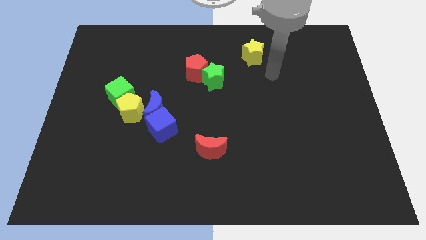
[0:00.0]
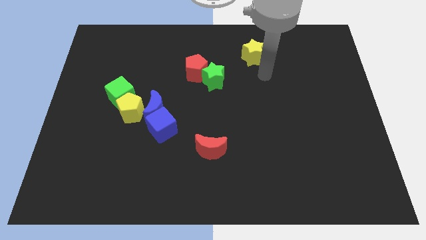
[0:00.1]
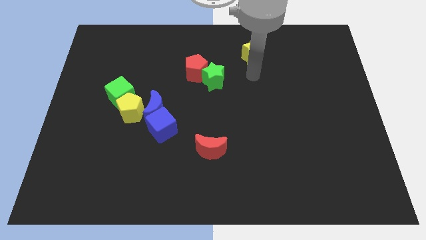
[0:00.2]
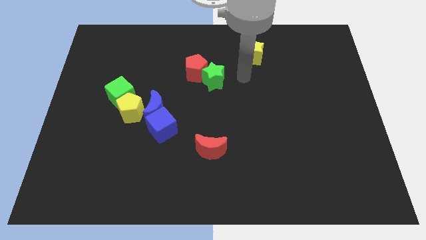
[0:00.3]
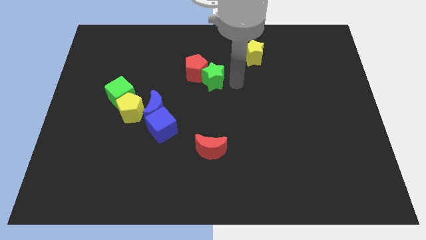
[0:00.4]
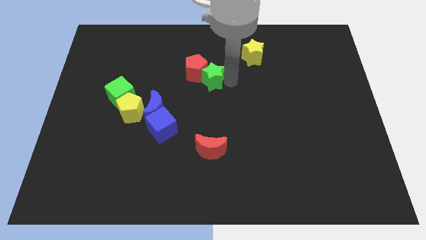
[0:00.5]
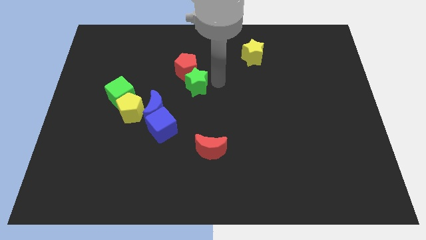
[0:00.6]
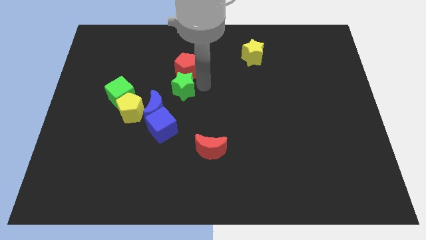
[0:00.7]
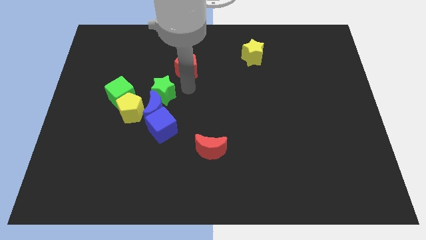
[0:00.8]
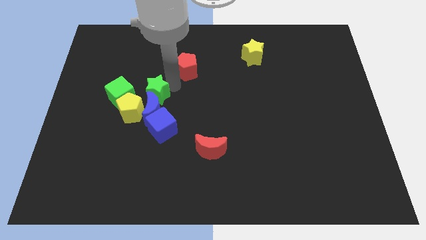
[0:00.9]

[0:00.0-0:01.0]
pull the red pentagon apart from the green star

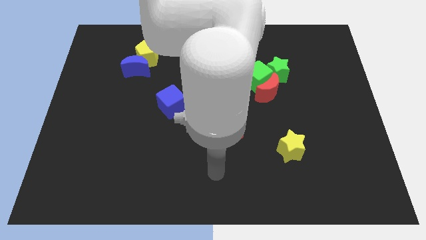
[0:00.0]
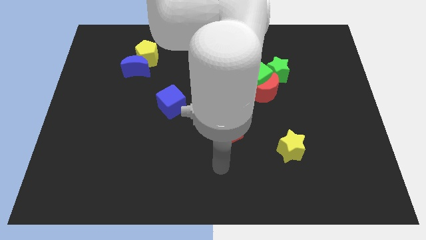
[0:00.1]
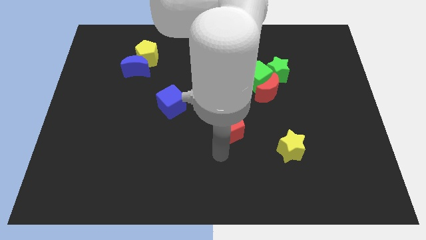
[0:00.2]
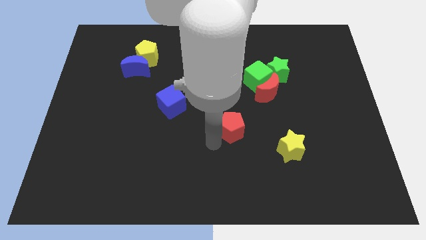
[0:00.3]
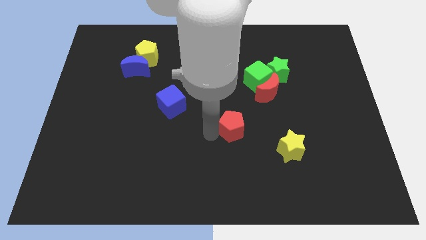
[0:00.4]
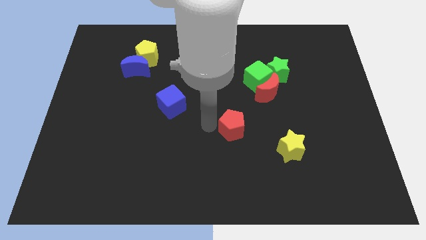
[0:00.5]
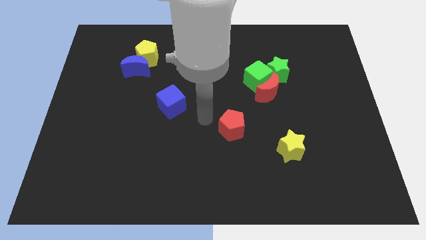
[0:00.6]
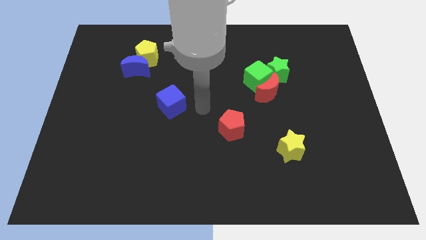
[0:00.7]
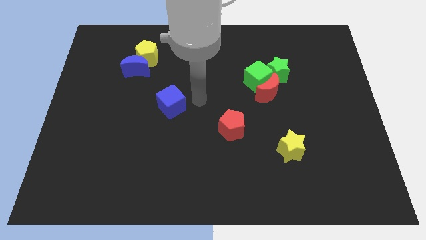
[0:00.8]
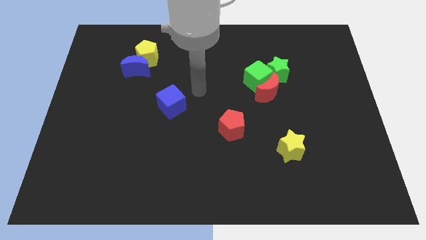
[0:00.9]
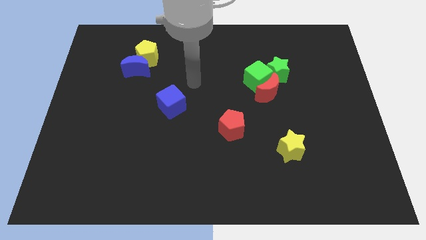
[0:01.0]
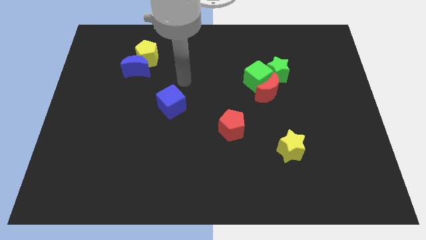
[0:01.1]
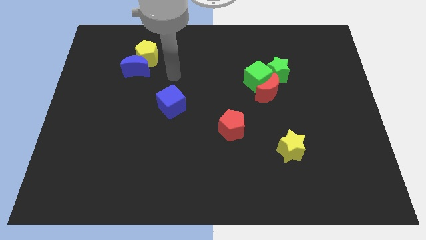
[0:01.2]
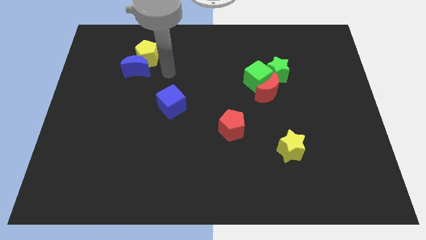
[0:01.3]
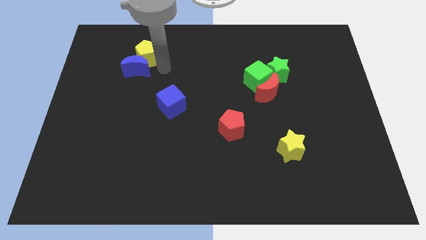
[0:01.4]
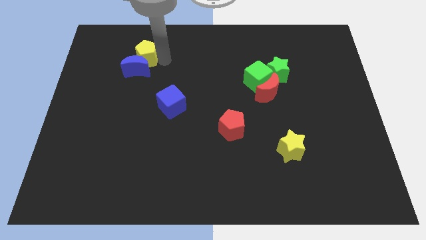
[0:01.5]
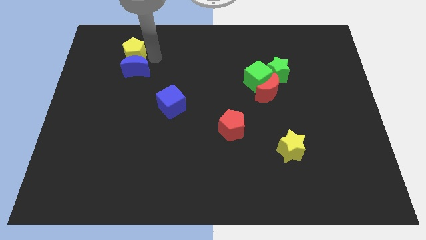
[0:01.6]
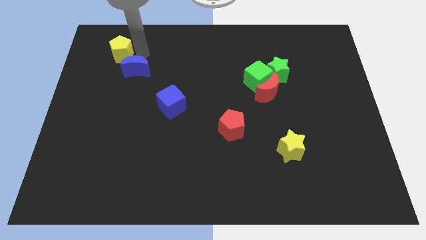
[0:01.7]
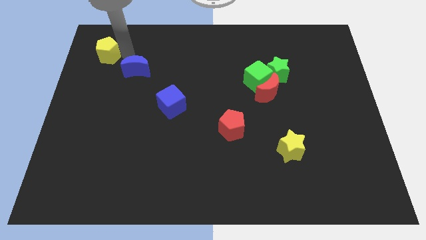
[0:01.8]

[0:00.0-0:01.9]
separate the blue moon from the yellow pentagon

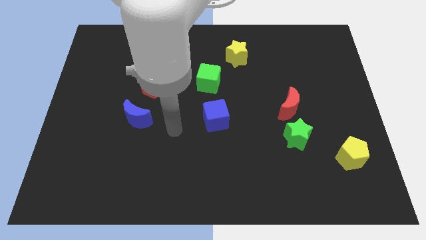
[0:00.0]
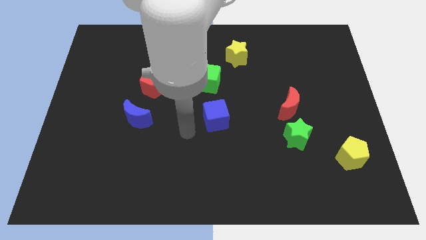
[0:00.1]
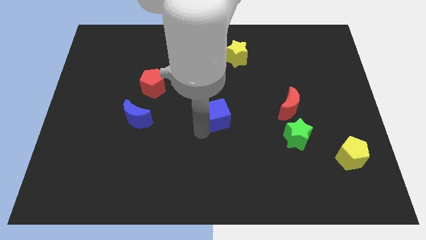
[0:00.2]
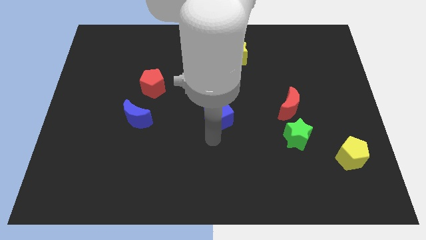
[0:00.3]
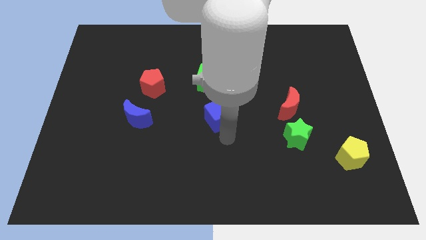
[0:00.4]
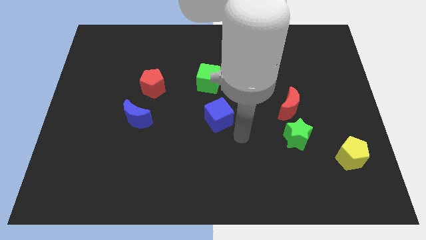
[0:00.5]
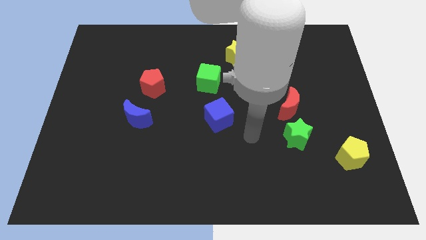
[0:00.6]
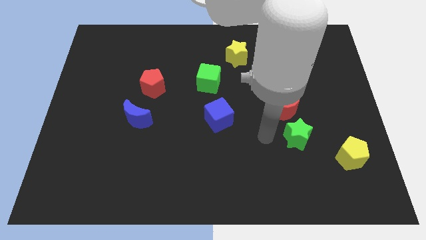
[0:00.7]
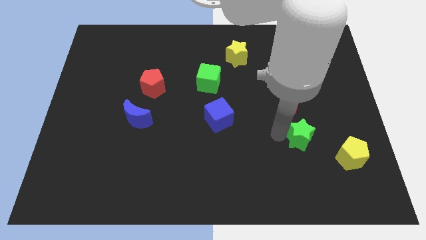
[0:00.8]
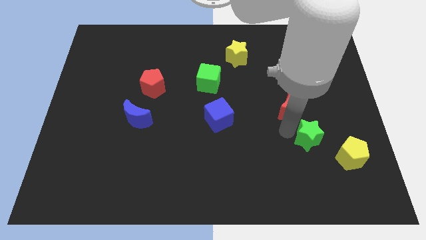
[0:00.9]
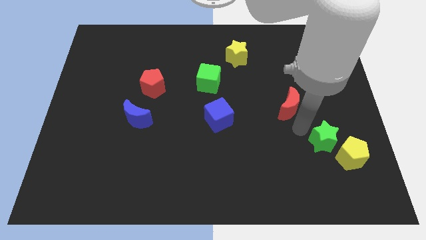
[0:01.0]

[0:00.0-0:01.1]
move the red moon away from the green star

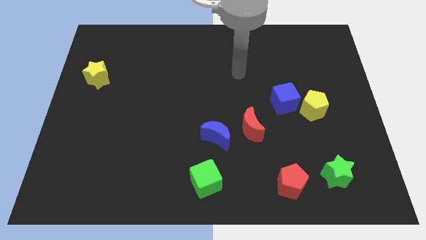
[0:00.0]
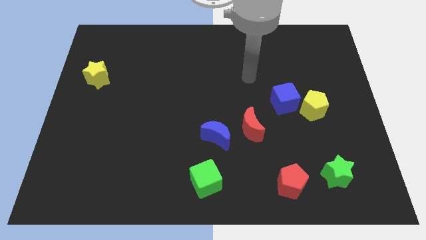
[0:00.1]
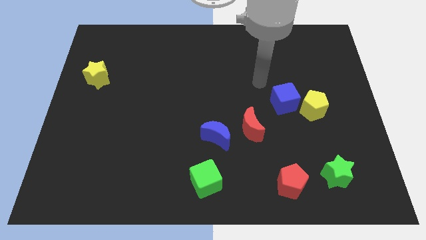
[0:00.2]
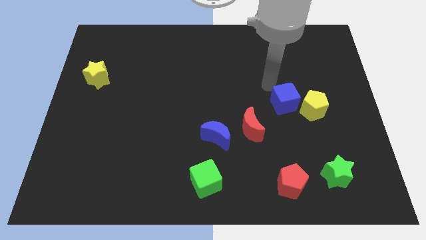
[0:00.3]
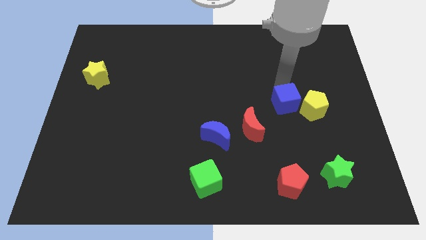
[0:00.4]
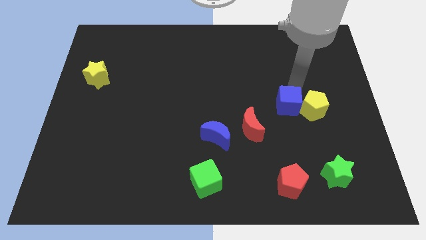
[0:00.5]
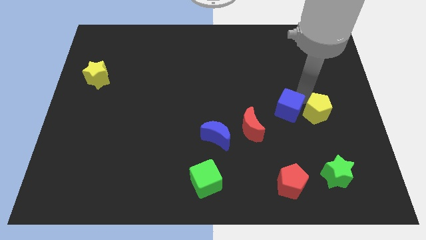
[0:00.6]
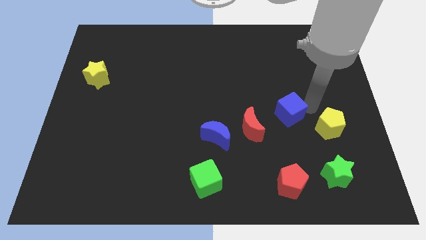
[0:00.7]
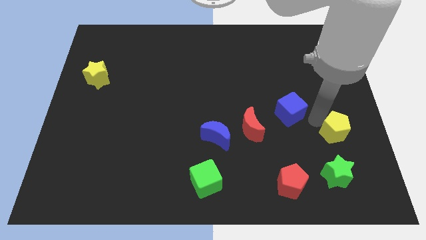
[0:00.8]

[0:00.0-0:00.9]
pull the blue cube apart from the yellow pentagon

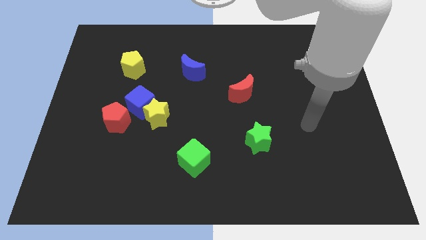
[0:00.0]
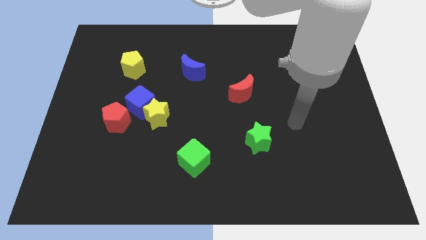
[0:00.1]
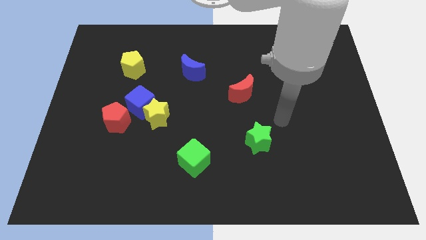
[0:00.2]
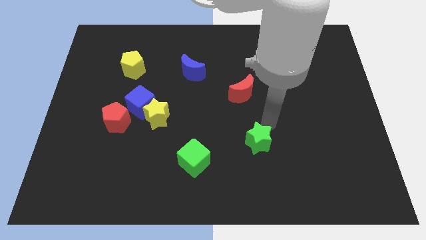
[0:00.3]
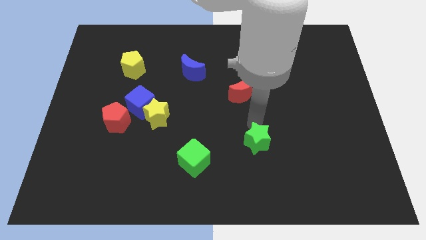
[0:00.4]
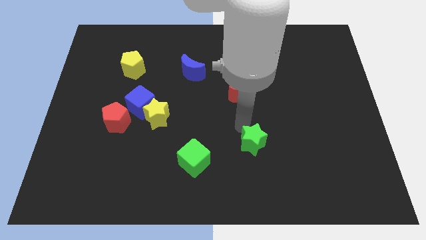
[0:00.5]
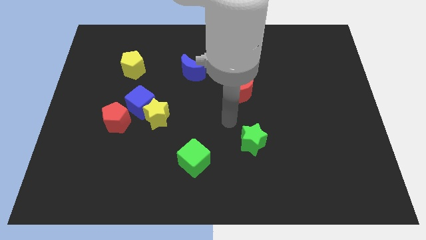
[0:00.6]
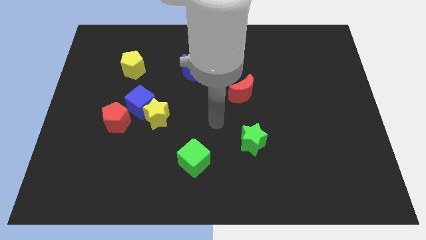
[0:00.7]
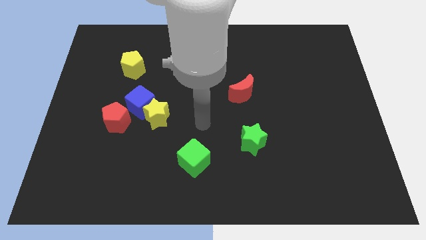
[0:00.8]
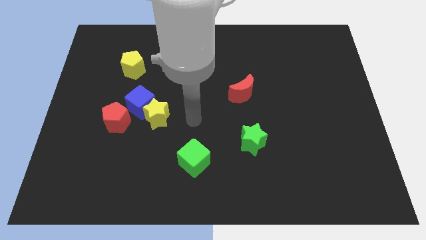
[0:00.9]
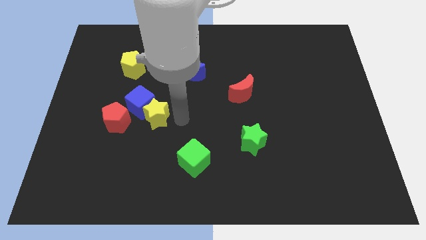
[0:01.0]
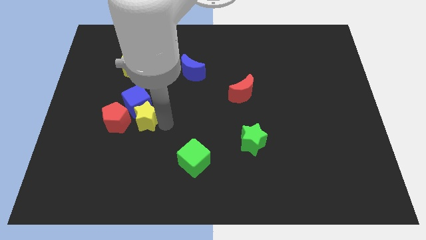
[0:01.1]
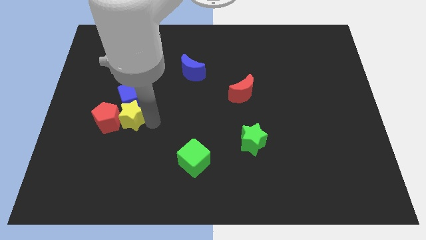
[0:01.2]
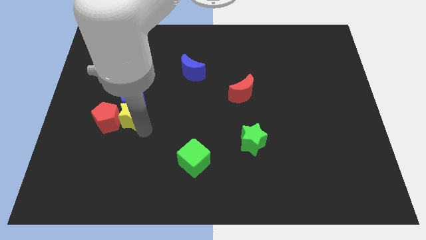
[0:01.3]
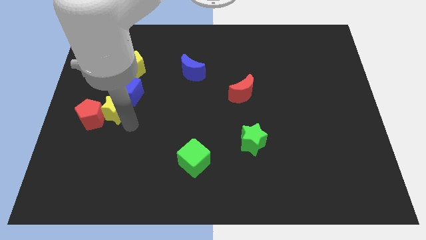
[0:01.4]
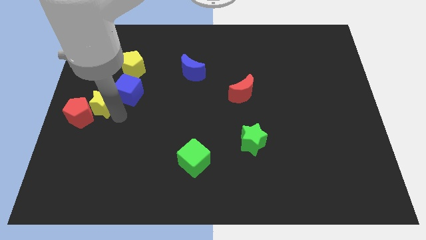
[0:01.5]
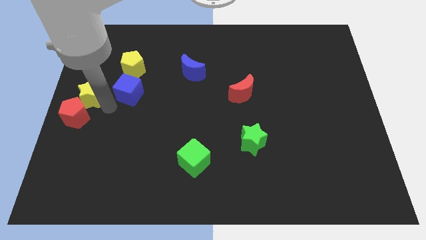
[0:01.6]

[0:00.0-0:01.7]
move the blue cube away from the yellow star and red pentagon

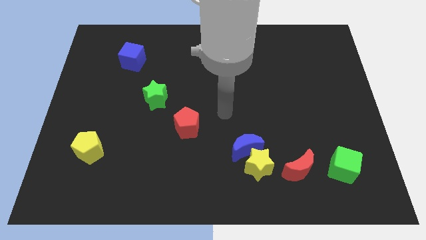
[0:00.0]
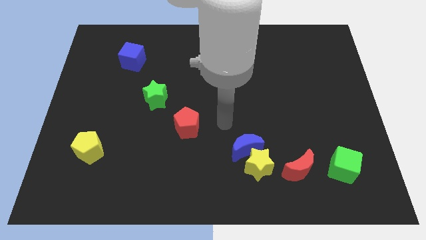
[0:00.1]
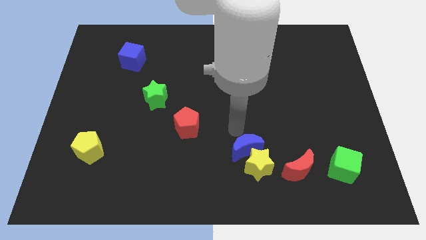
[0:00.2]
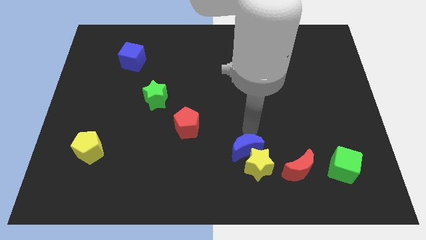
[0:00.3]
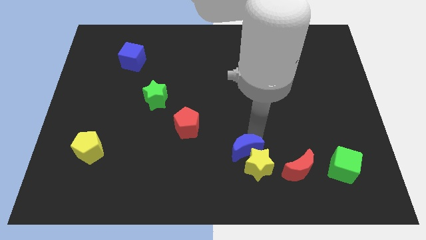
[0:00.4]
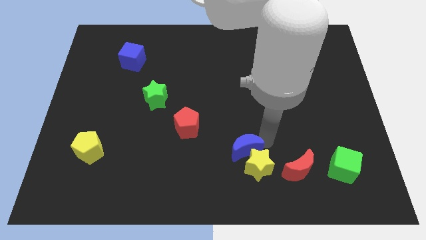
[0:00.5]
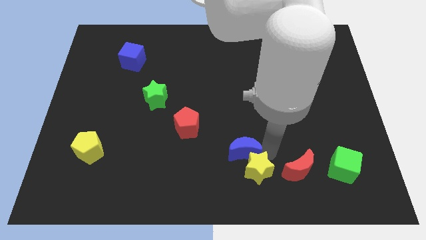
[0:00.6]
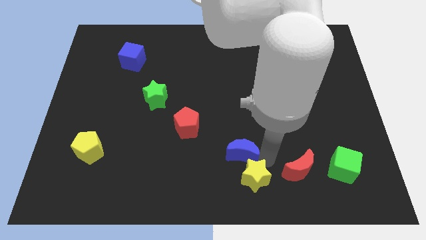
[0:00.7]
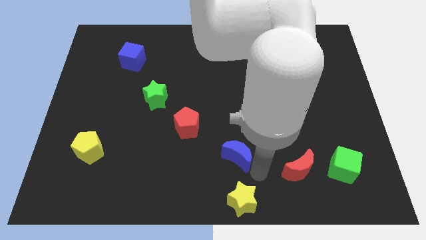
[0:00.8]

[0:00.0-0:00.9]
pull the blue moon apart from the yellow star

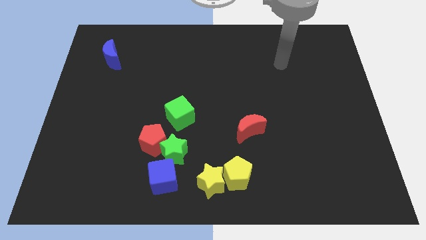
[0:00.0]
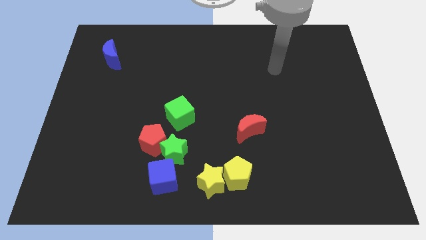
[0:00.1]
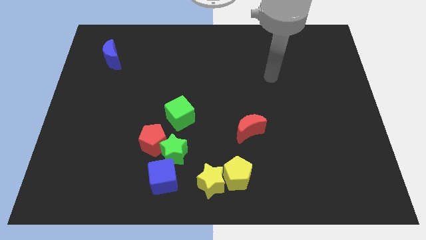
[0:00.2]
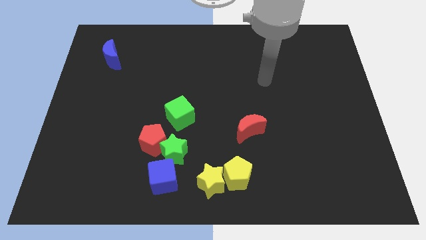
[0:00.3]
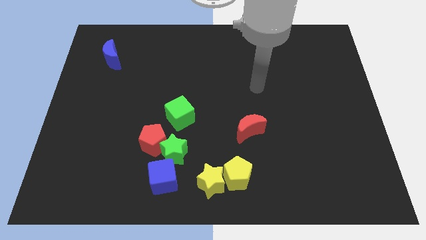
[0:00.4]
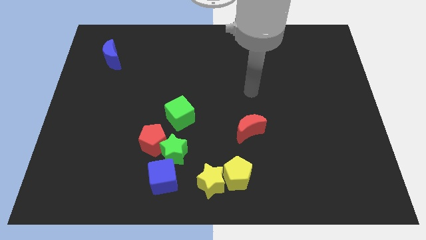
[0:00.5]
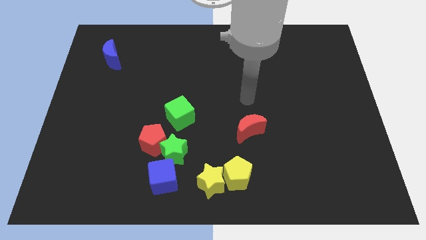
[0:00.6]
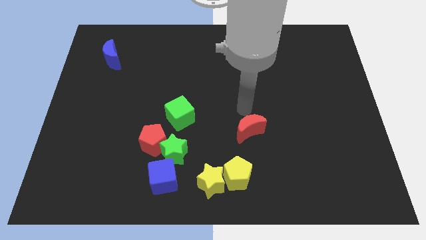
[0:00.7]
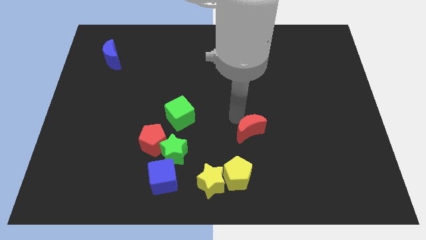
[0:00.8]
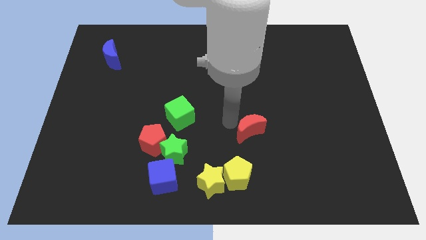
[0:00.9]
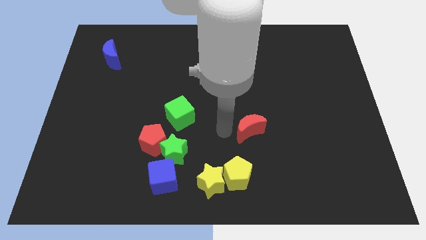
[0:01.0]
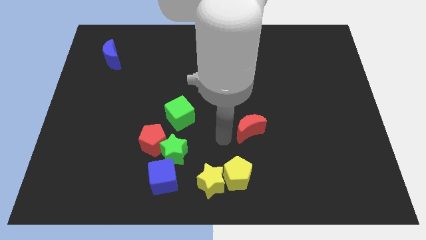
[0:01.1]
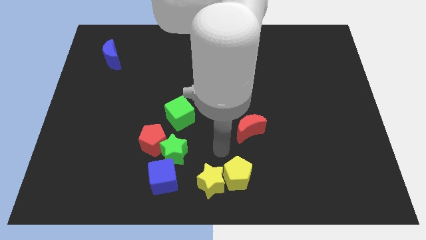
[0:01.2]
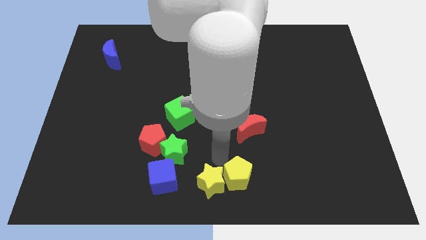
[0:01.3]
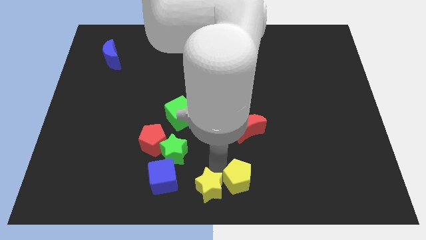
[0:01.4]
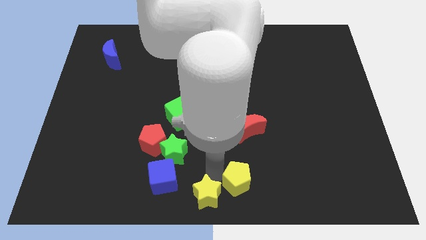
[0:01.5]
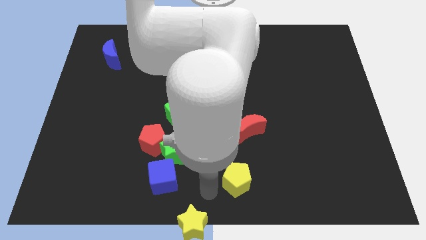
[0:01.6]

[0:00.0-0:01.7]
move the yellow pentagon away from the yellow star
